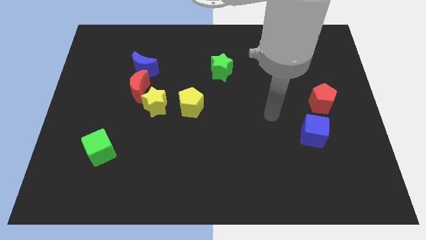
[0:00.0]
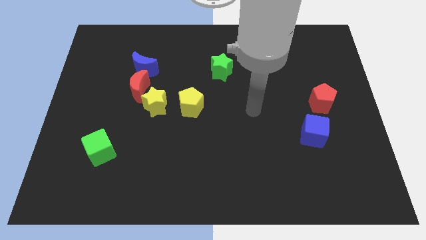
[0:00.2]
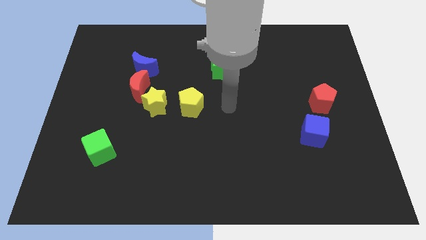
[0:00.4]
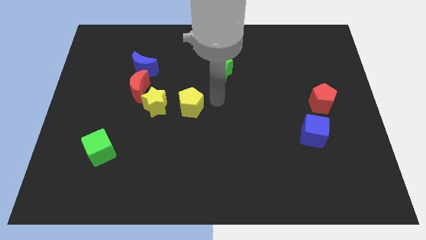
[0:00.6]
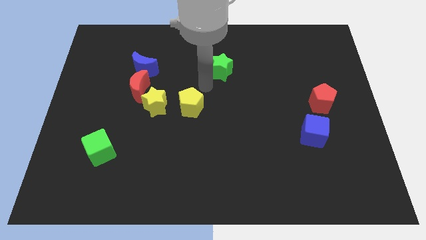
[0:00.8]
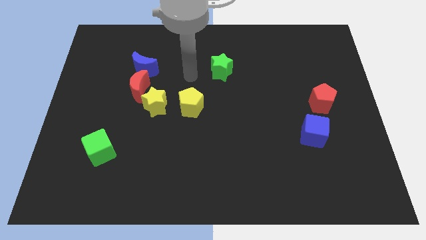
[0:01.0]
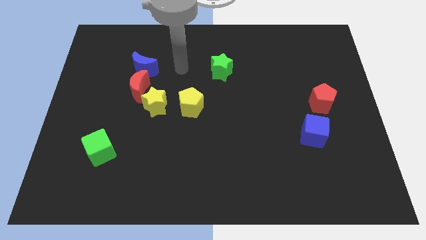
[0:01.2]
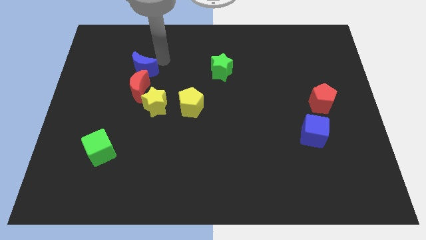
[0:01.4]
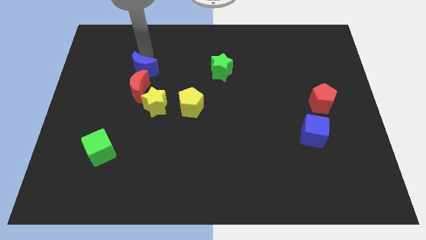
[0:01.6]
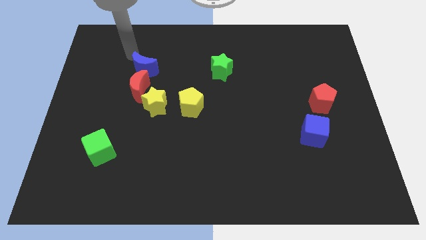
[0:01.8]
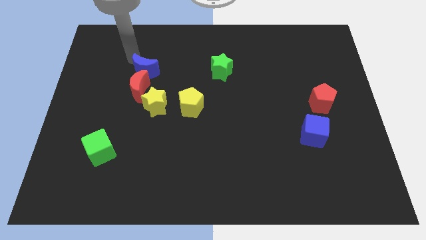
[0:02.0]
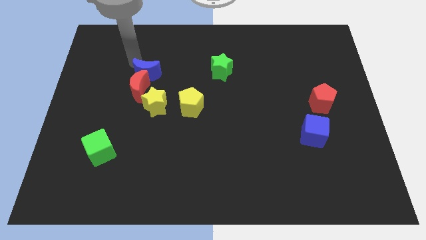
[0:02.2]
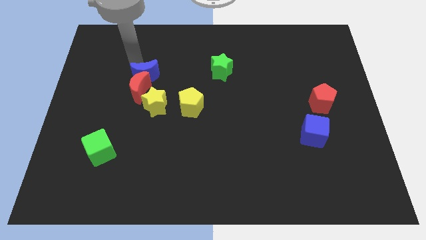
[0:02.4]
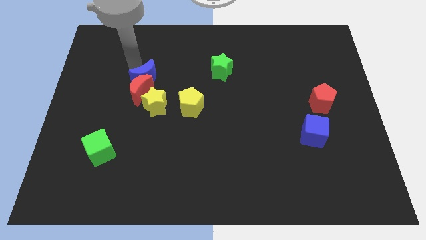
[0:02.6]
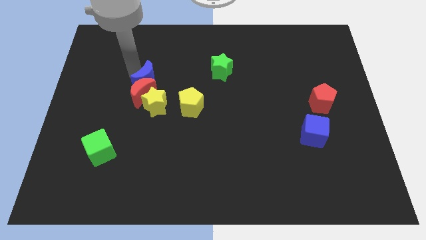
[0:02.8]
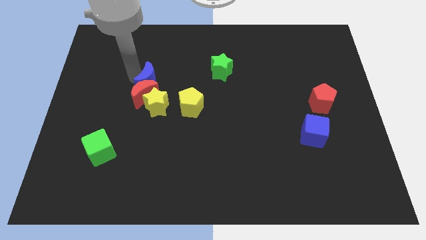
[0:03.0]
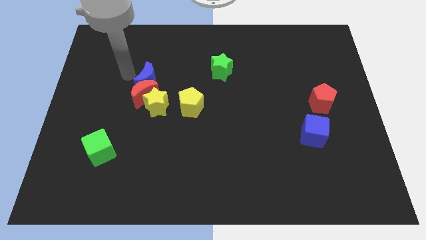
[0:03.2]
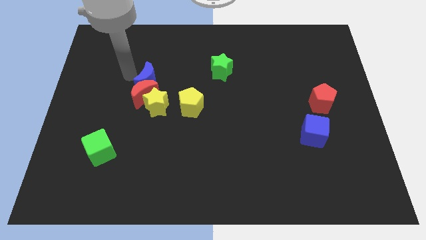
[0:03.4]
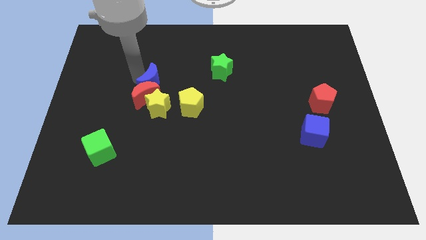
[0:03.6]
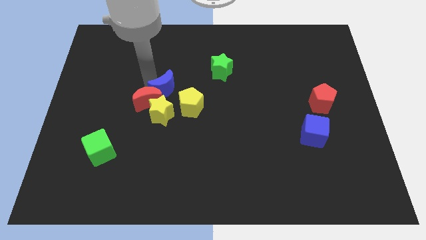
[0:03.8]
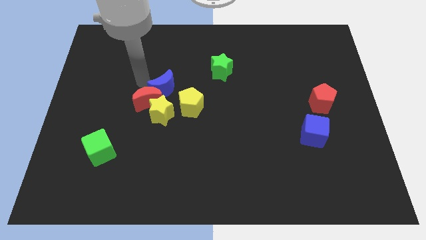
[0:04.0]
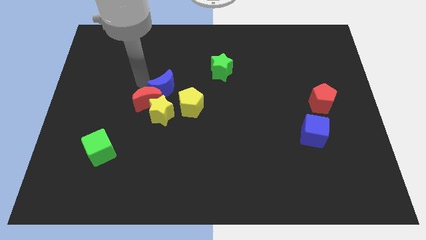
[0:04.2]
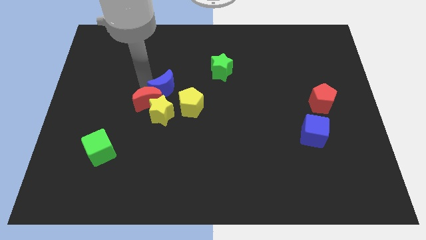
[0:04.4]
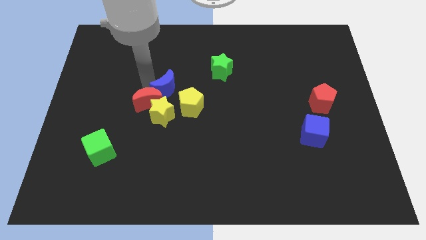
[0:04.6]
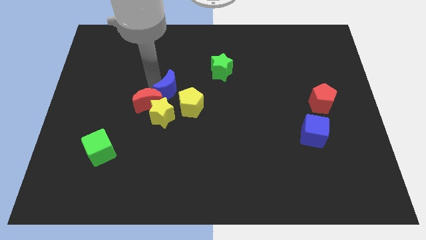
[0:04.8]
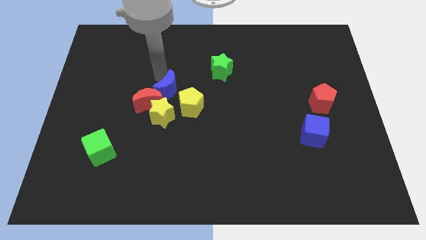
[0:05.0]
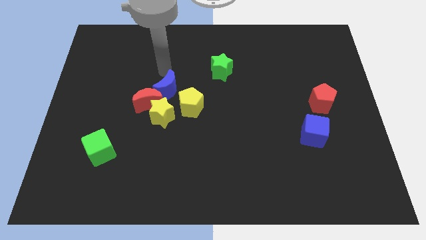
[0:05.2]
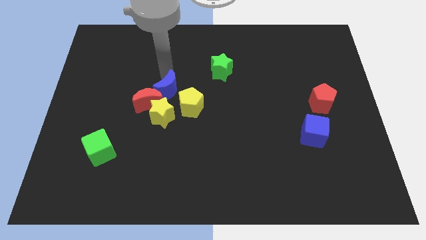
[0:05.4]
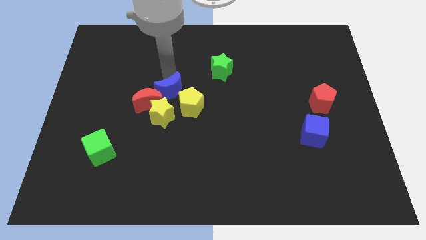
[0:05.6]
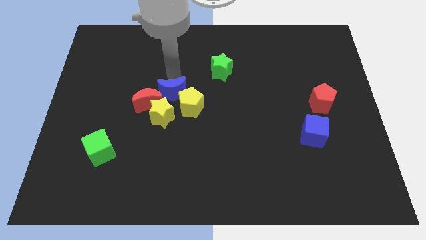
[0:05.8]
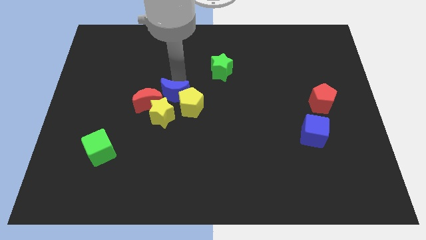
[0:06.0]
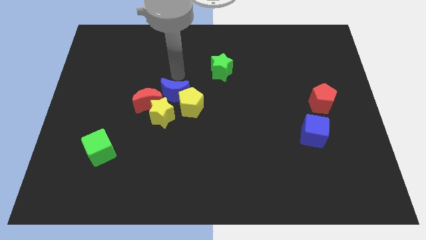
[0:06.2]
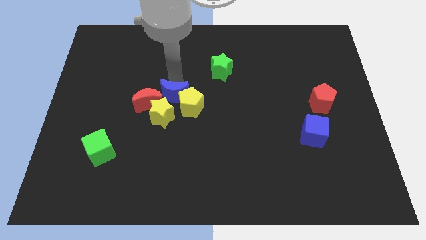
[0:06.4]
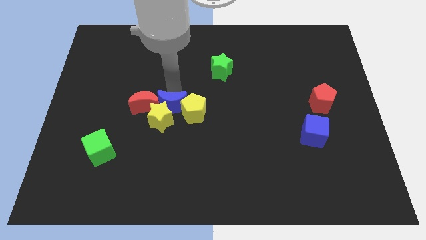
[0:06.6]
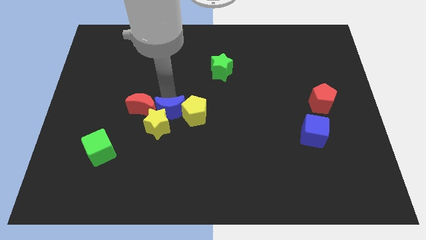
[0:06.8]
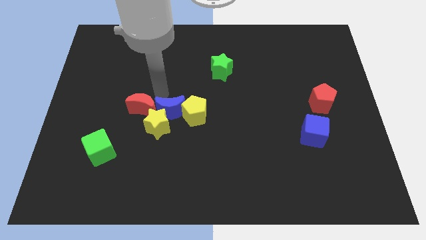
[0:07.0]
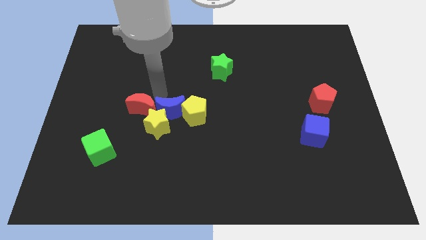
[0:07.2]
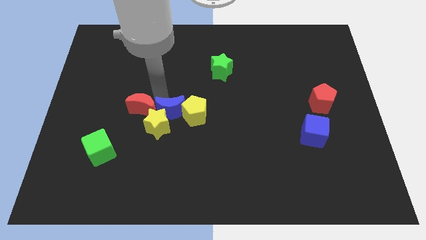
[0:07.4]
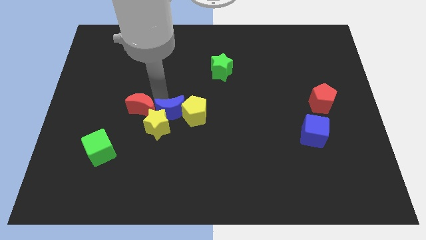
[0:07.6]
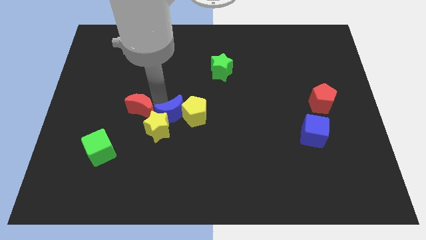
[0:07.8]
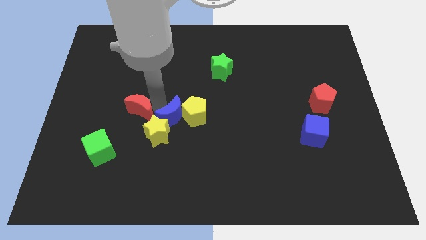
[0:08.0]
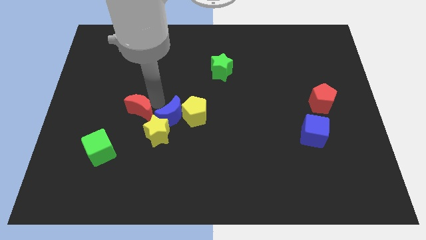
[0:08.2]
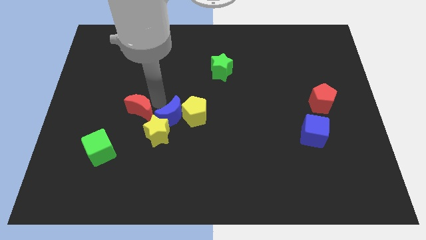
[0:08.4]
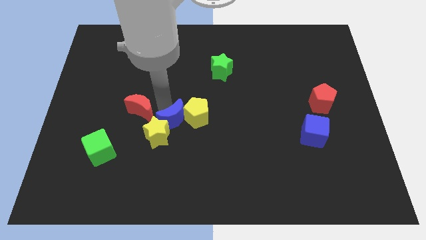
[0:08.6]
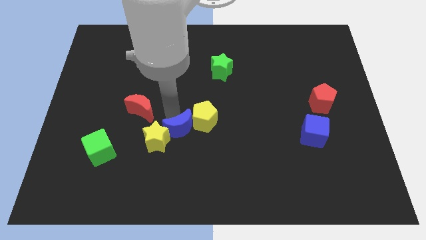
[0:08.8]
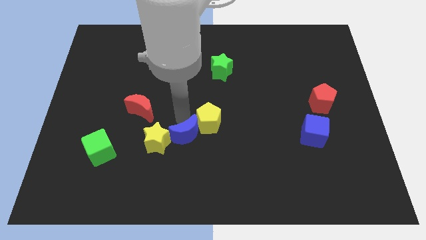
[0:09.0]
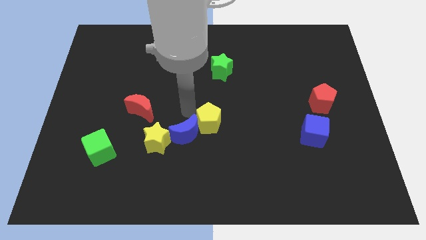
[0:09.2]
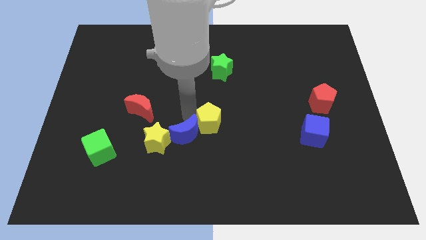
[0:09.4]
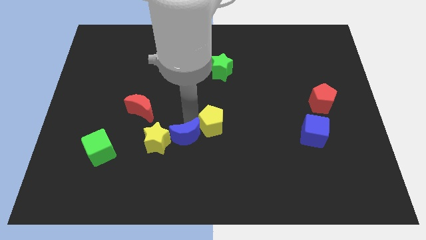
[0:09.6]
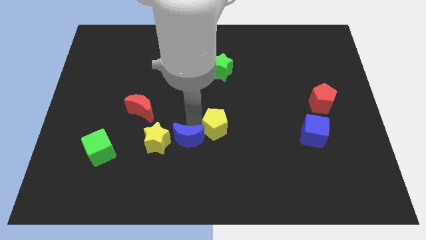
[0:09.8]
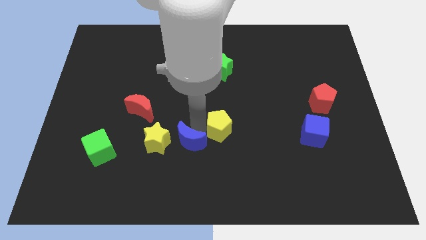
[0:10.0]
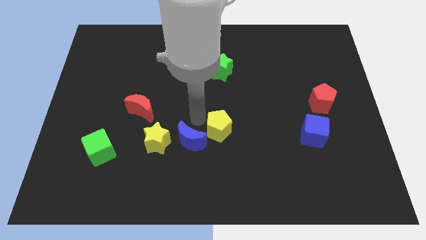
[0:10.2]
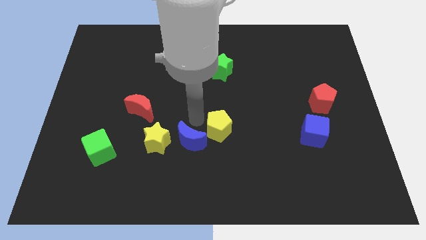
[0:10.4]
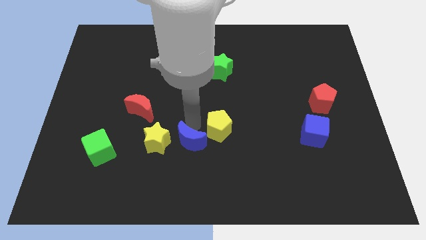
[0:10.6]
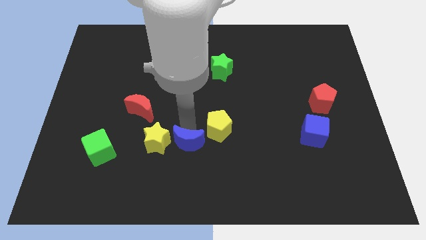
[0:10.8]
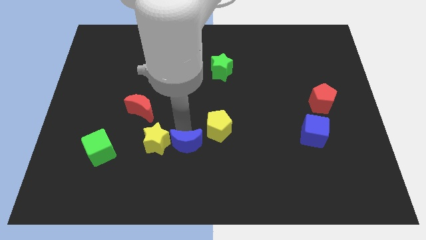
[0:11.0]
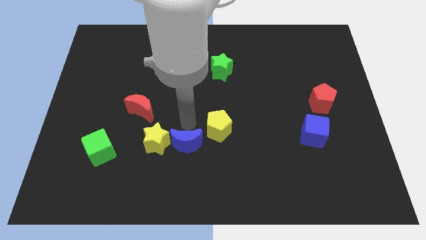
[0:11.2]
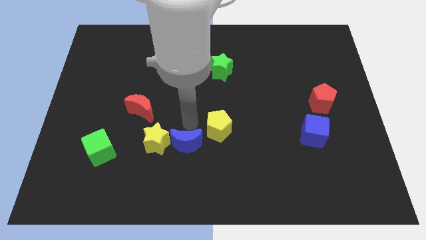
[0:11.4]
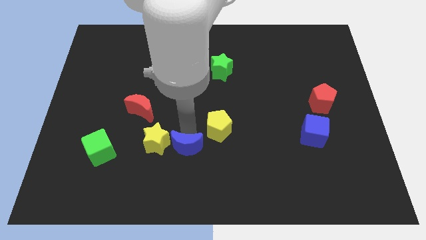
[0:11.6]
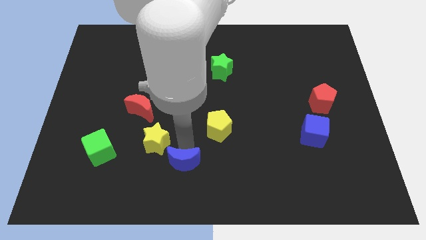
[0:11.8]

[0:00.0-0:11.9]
put the blue moon to the bottom

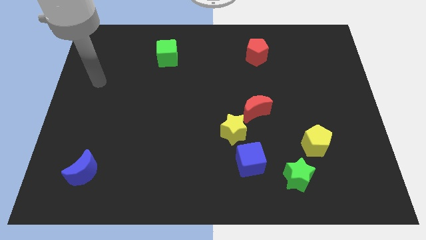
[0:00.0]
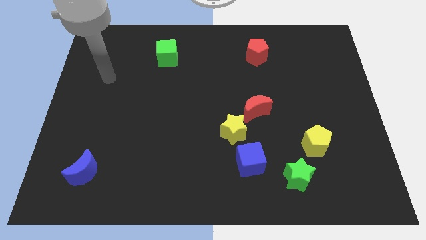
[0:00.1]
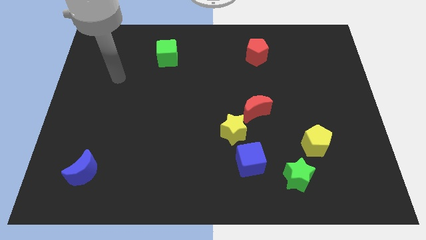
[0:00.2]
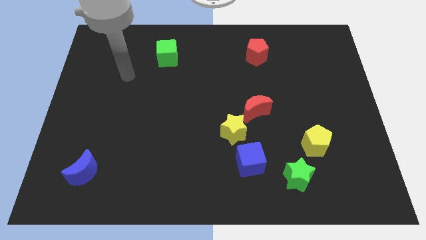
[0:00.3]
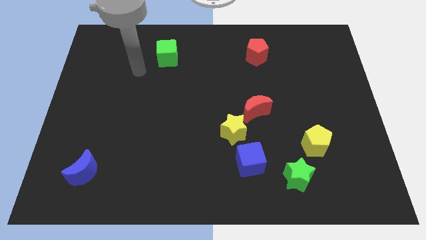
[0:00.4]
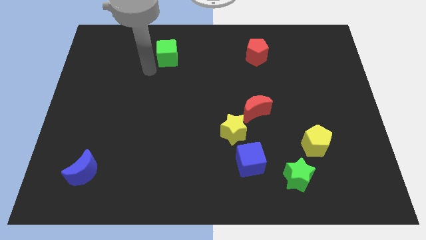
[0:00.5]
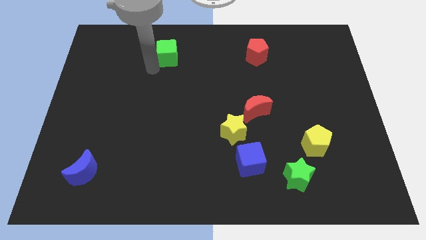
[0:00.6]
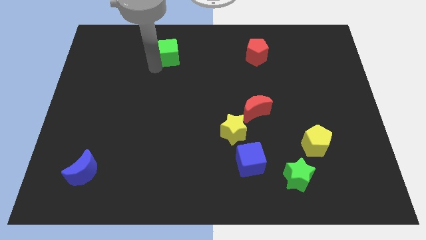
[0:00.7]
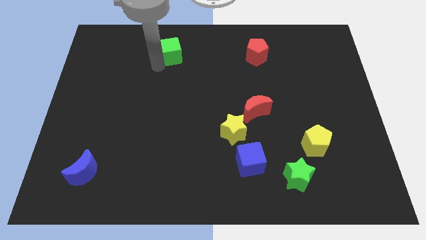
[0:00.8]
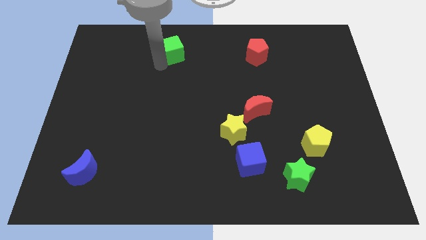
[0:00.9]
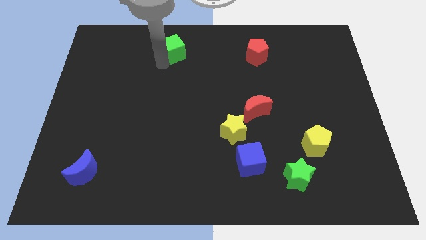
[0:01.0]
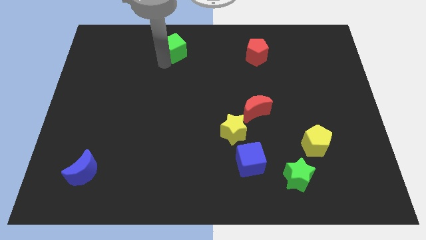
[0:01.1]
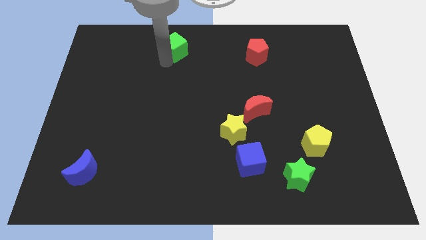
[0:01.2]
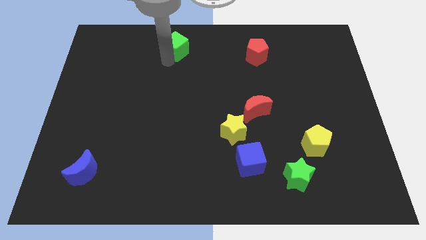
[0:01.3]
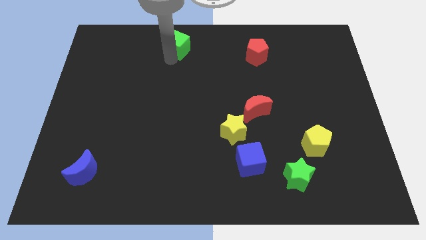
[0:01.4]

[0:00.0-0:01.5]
move the green cube to the top side
